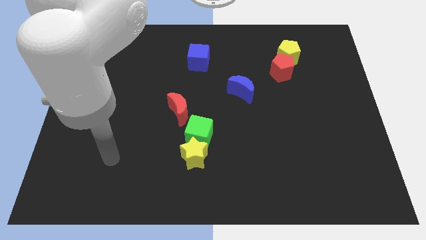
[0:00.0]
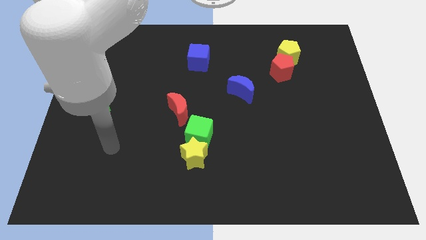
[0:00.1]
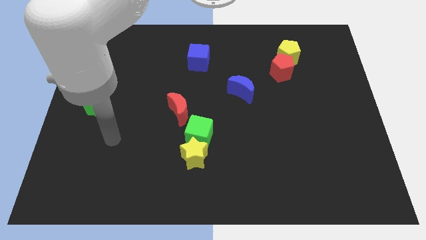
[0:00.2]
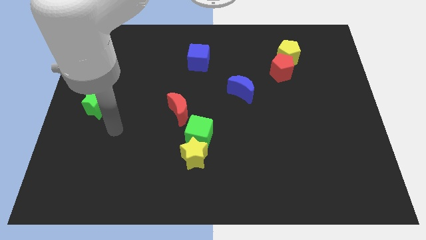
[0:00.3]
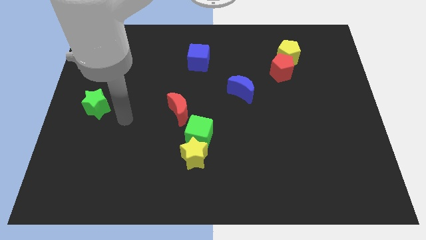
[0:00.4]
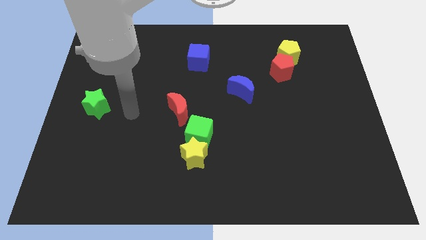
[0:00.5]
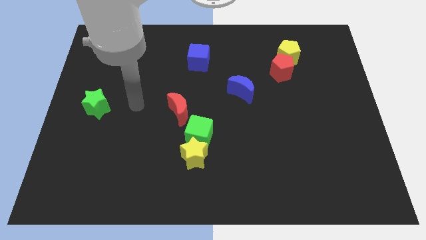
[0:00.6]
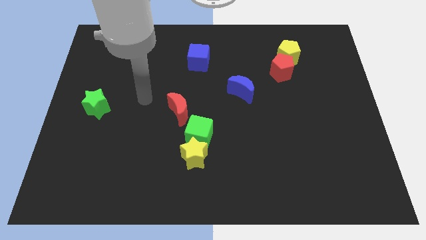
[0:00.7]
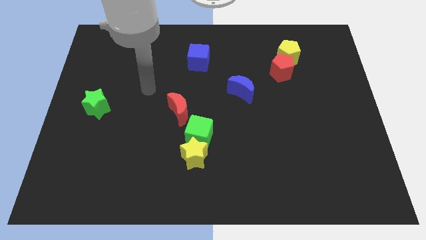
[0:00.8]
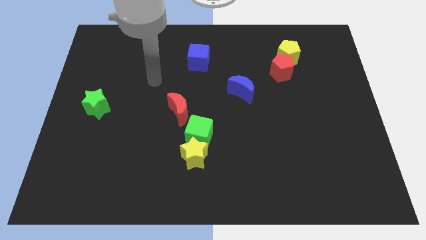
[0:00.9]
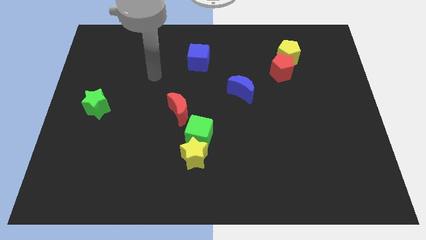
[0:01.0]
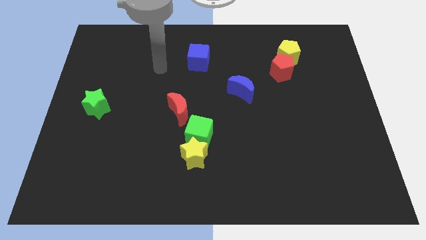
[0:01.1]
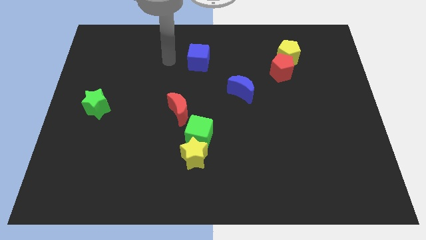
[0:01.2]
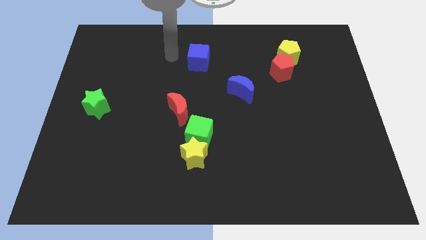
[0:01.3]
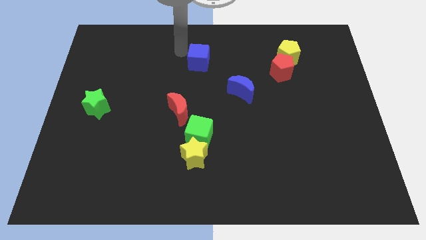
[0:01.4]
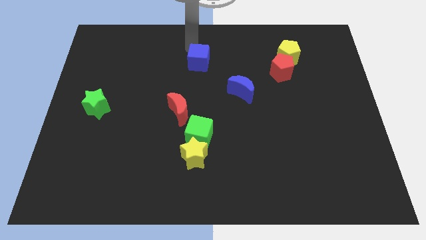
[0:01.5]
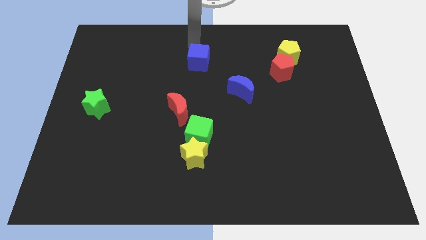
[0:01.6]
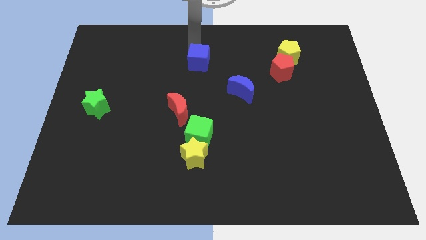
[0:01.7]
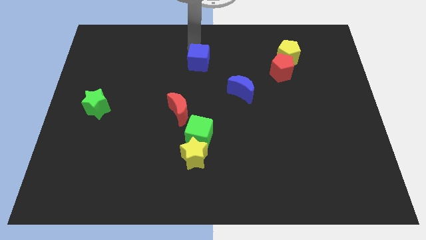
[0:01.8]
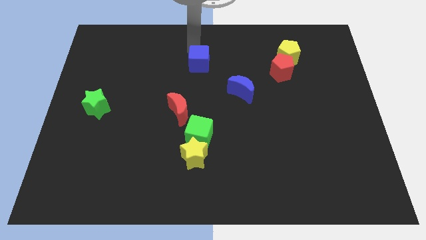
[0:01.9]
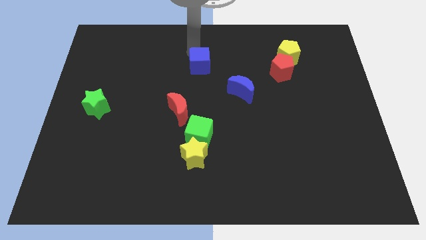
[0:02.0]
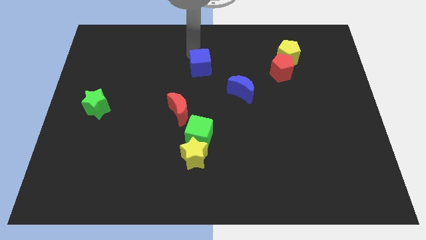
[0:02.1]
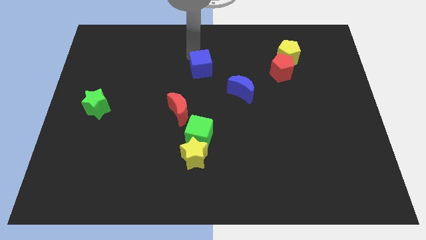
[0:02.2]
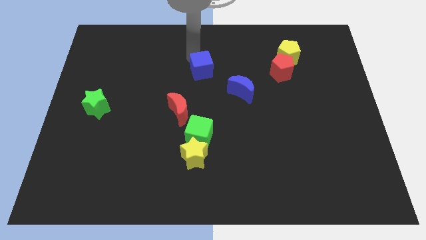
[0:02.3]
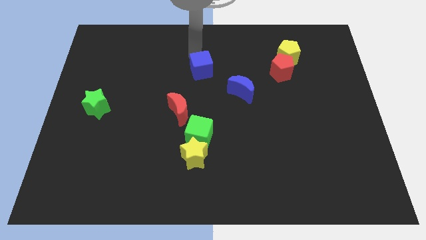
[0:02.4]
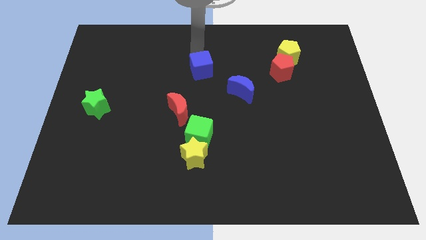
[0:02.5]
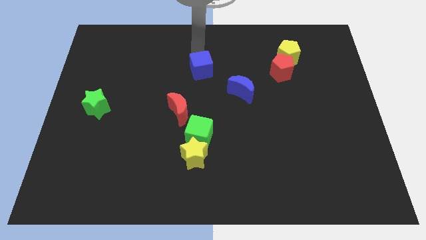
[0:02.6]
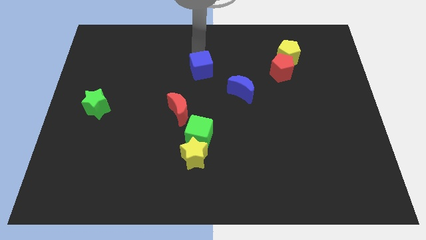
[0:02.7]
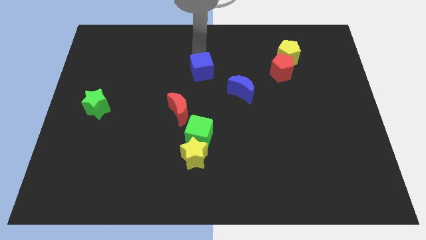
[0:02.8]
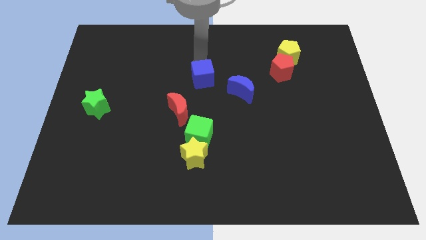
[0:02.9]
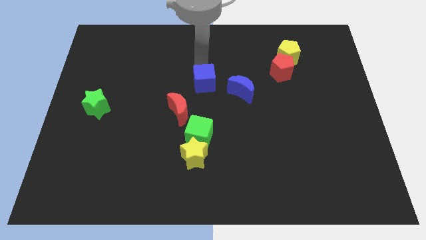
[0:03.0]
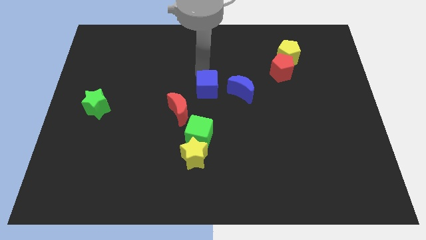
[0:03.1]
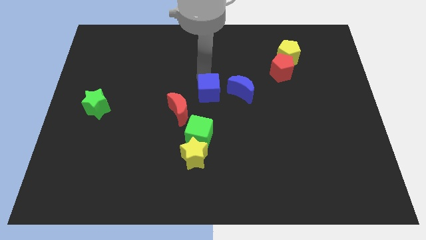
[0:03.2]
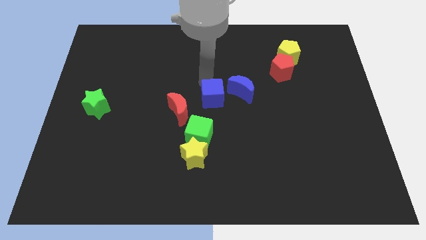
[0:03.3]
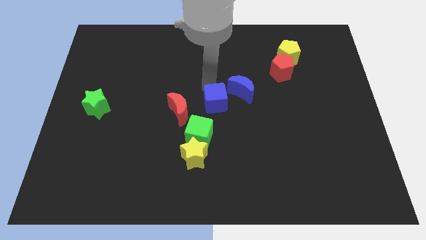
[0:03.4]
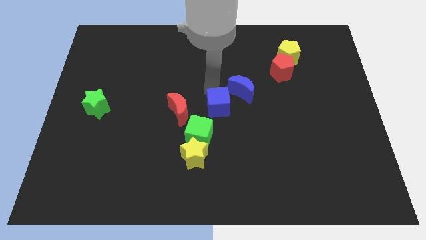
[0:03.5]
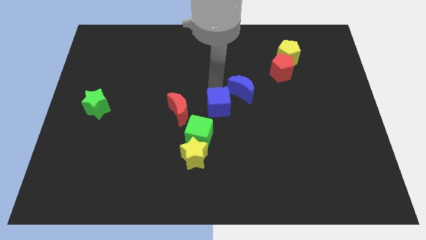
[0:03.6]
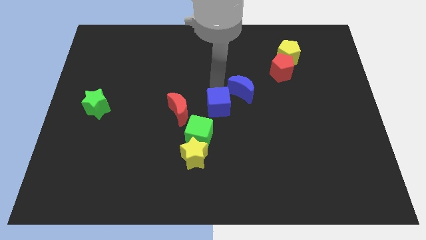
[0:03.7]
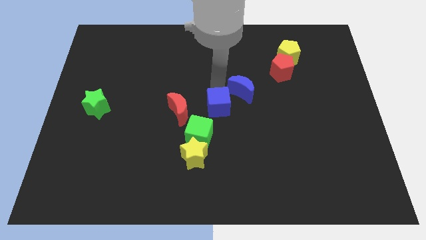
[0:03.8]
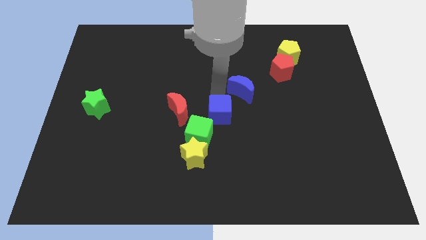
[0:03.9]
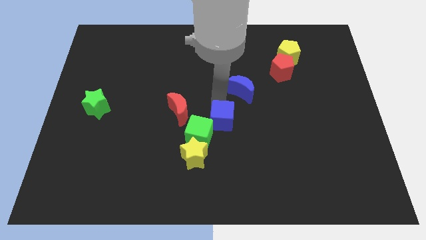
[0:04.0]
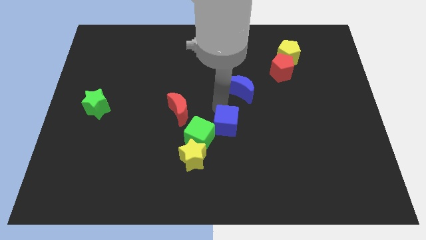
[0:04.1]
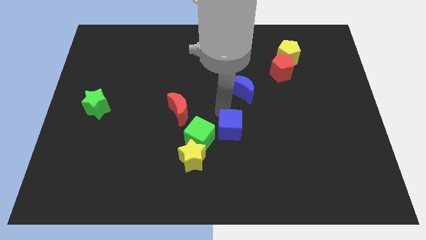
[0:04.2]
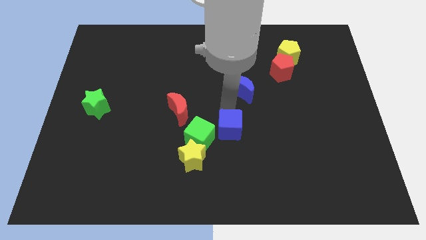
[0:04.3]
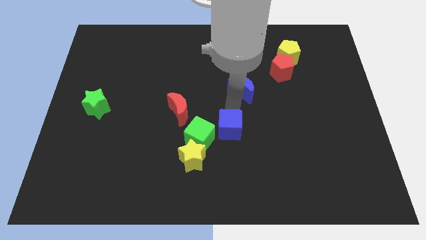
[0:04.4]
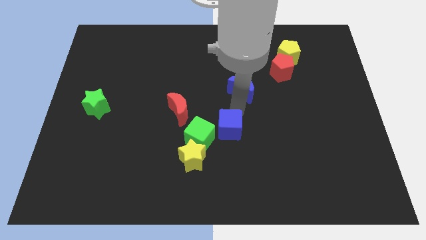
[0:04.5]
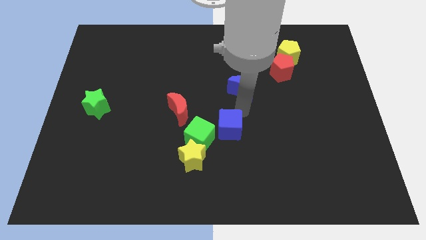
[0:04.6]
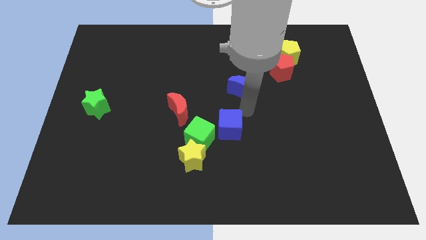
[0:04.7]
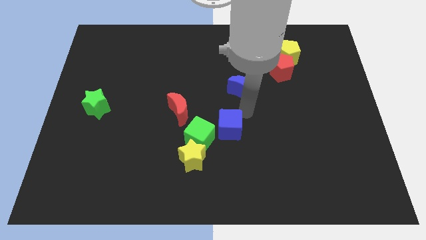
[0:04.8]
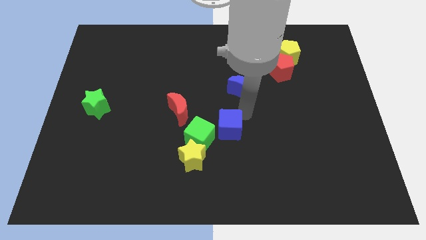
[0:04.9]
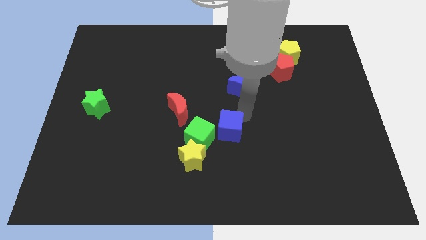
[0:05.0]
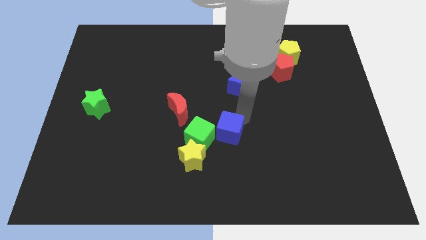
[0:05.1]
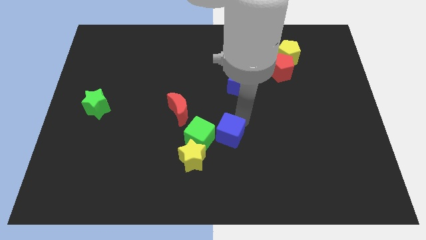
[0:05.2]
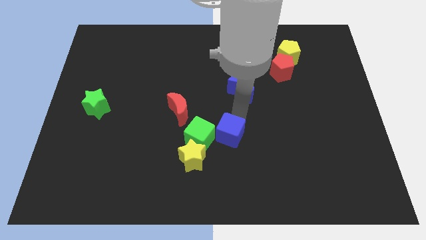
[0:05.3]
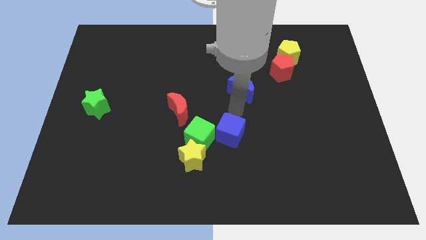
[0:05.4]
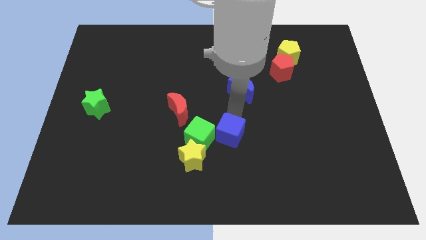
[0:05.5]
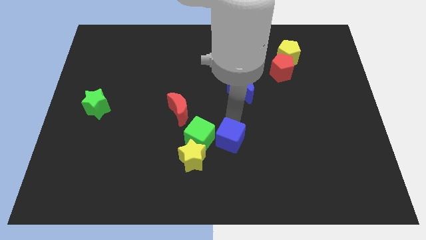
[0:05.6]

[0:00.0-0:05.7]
put the blue cube diagonally down and to the right of the green cube

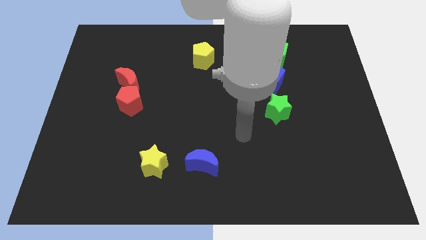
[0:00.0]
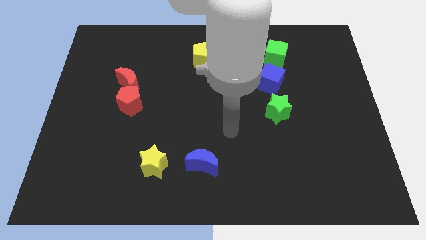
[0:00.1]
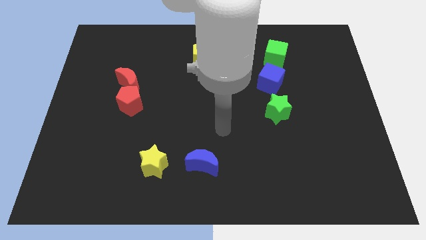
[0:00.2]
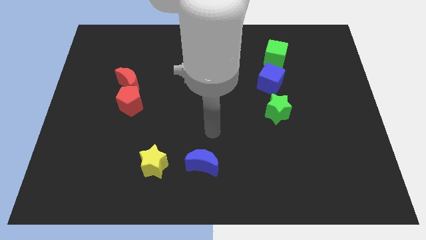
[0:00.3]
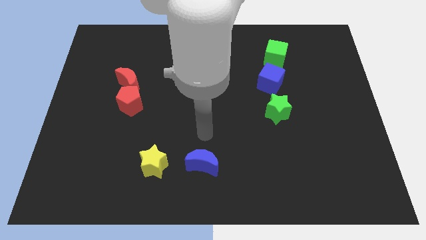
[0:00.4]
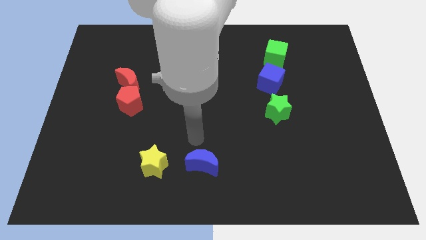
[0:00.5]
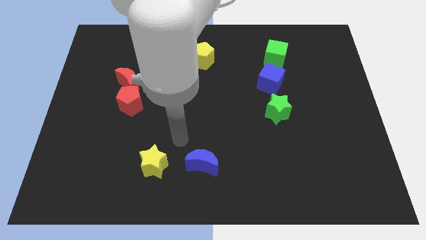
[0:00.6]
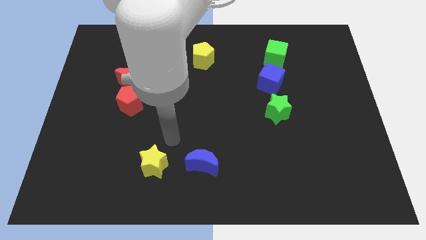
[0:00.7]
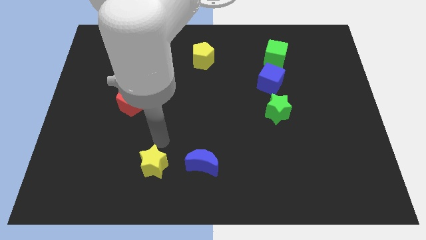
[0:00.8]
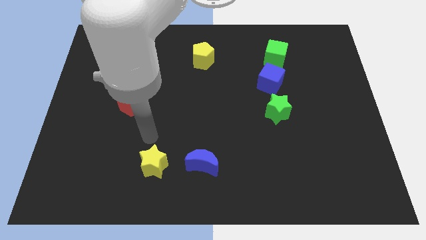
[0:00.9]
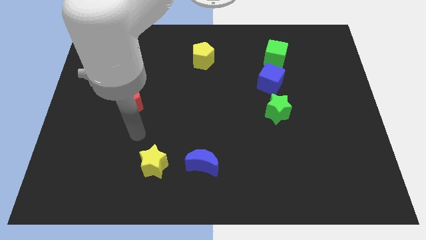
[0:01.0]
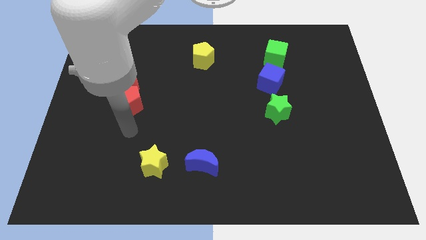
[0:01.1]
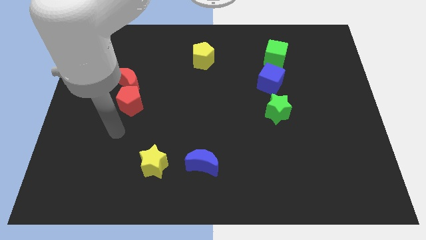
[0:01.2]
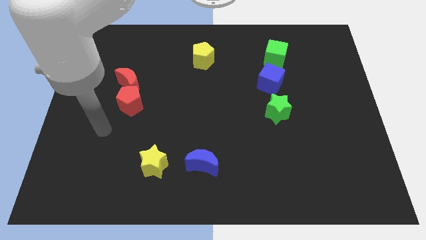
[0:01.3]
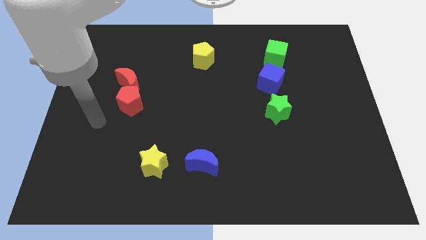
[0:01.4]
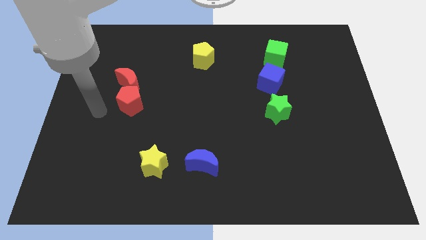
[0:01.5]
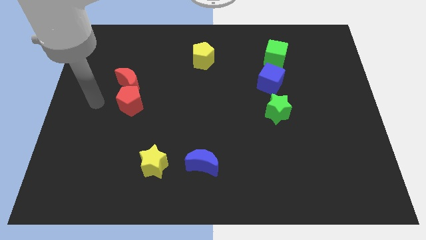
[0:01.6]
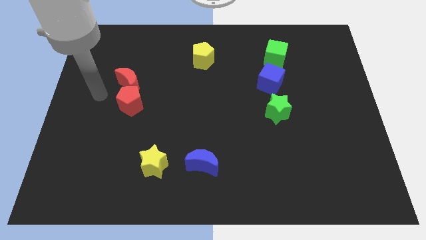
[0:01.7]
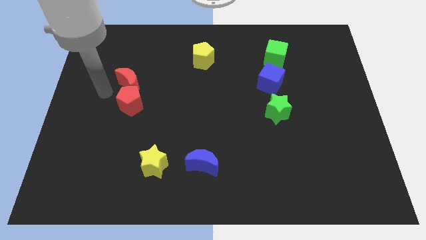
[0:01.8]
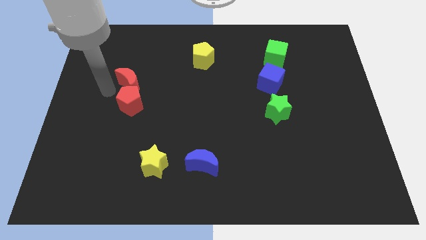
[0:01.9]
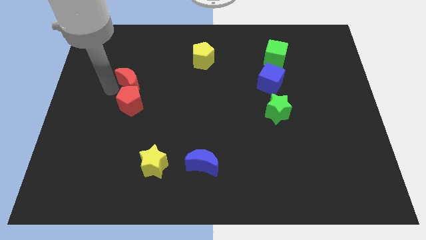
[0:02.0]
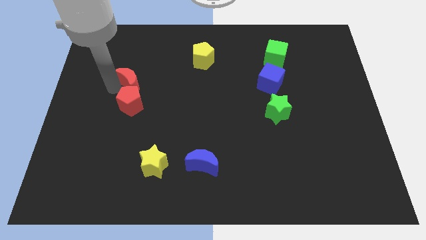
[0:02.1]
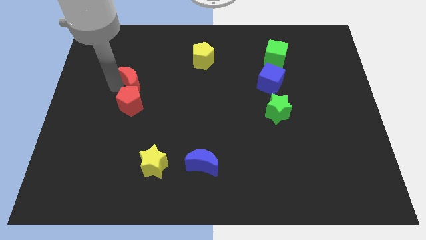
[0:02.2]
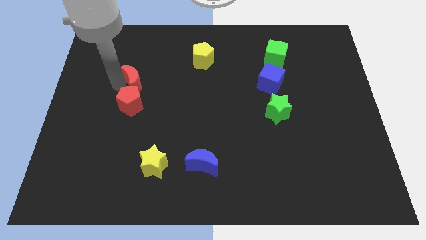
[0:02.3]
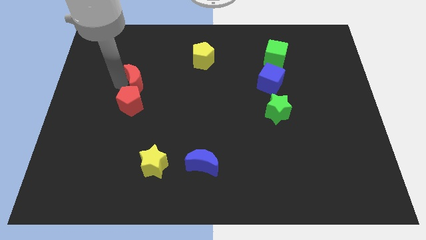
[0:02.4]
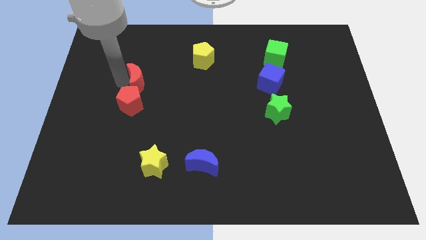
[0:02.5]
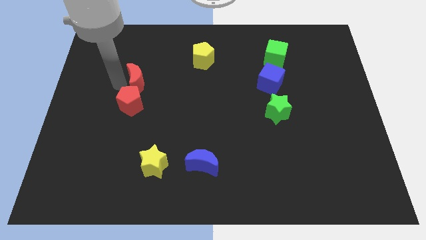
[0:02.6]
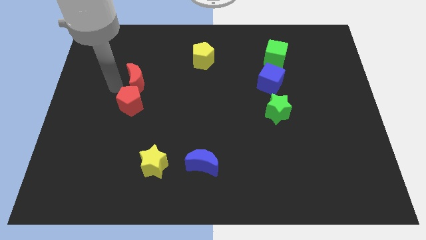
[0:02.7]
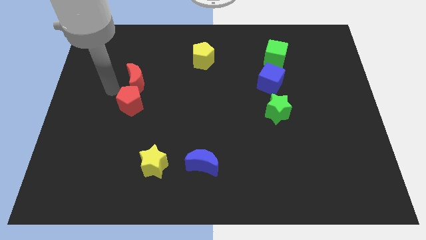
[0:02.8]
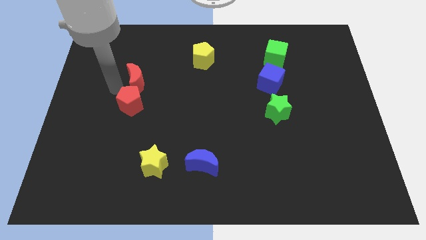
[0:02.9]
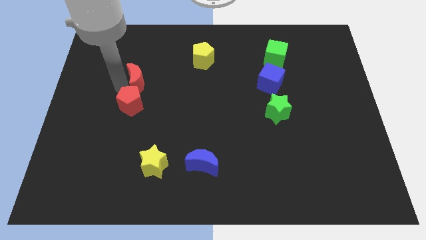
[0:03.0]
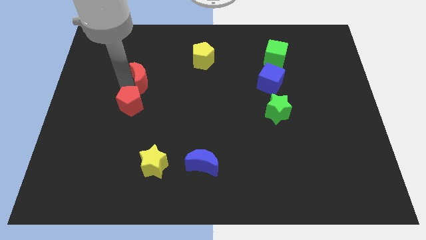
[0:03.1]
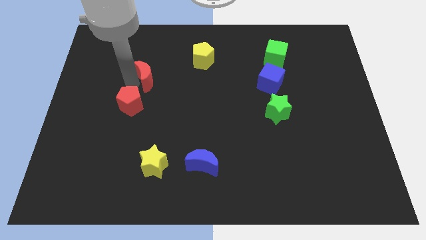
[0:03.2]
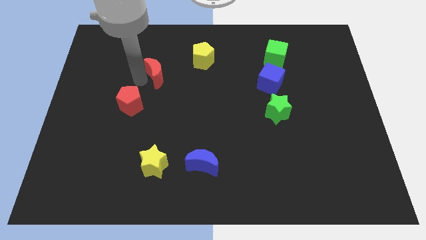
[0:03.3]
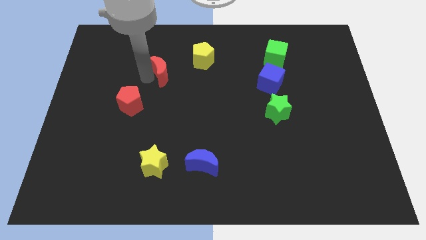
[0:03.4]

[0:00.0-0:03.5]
put the red moon to the bottom left side of the yellow pentagon
